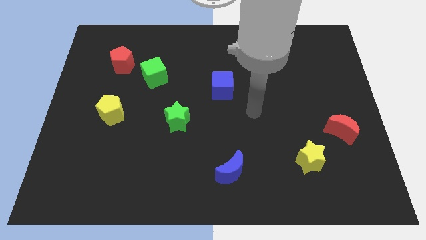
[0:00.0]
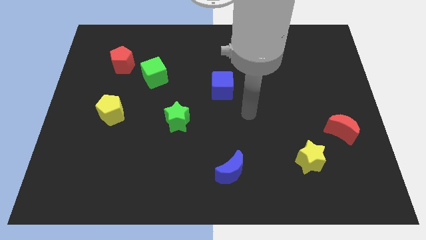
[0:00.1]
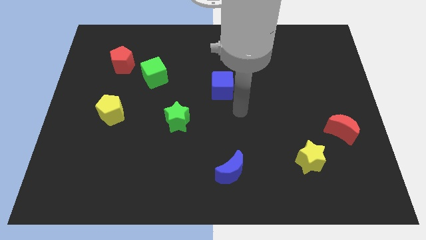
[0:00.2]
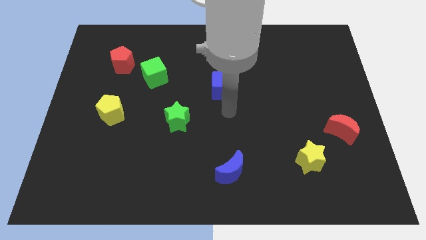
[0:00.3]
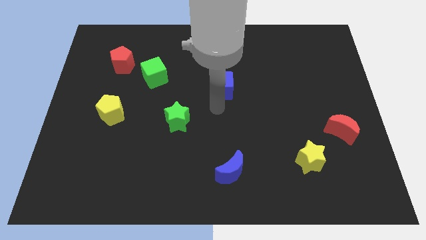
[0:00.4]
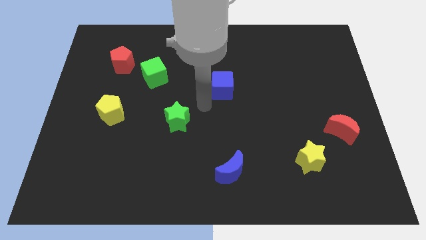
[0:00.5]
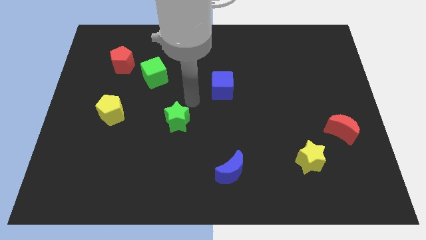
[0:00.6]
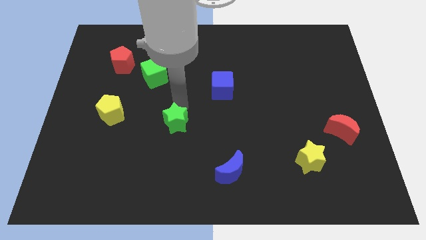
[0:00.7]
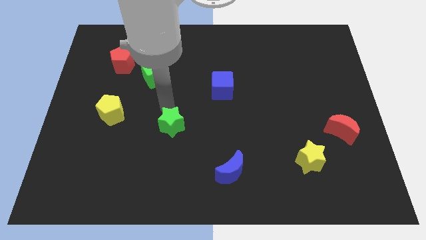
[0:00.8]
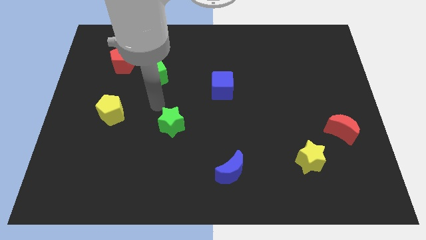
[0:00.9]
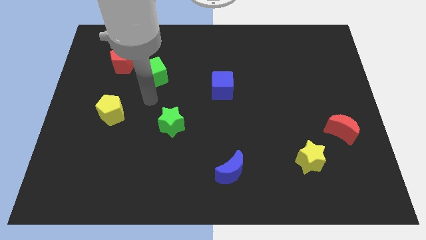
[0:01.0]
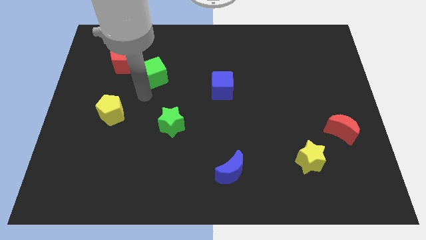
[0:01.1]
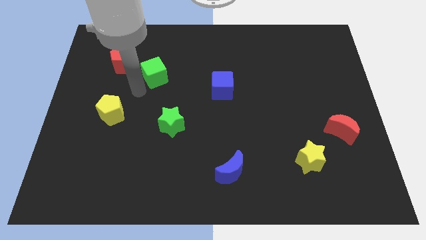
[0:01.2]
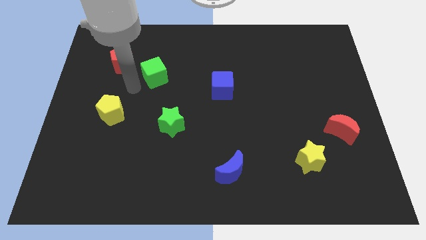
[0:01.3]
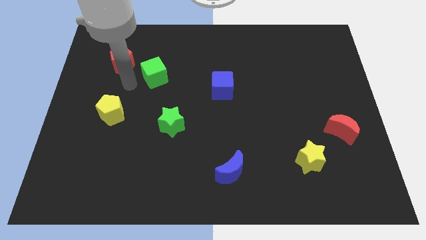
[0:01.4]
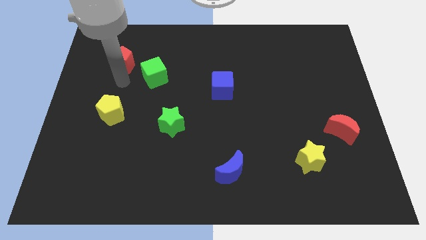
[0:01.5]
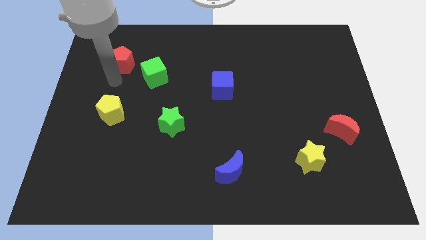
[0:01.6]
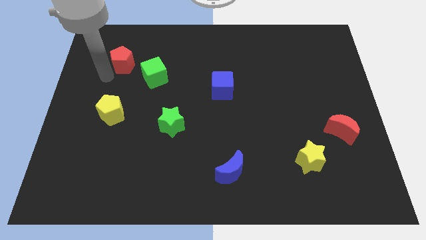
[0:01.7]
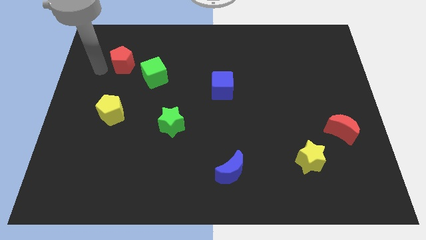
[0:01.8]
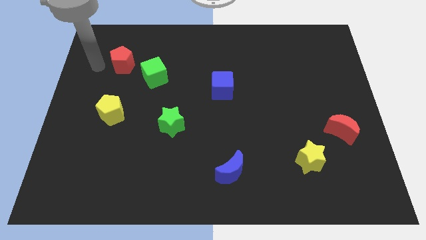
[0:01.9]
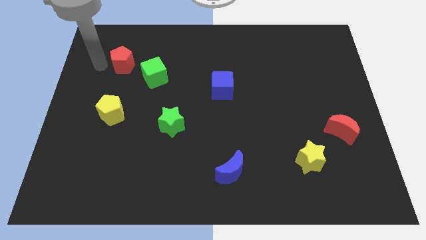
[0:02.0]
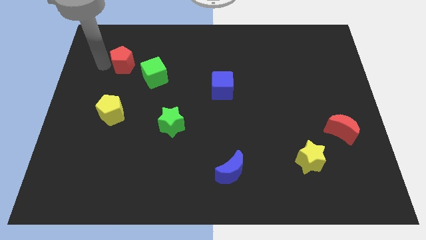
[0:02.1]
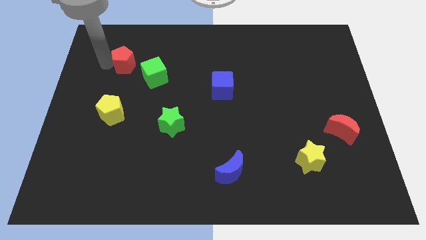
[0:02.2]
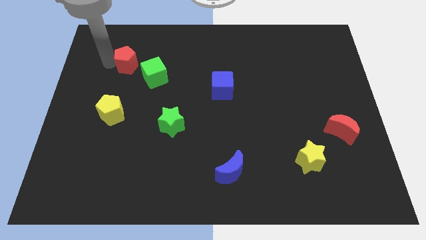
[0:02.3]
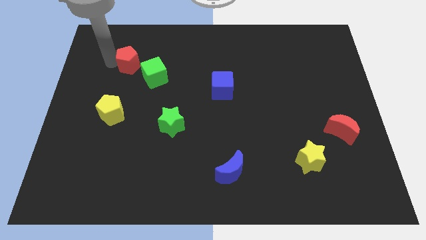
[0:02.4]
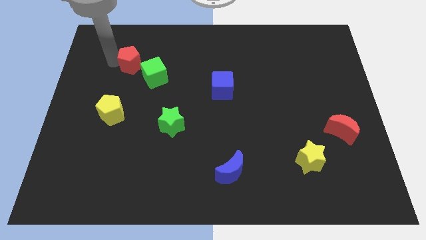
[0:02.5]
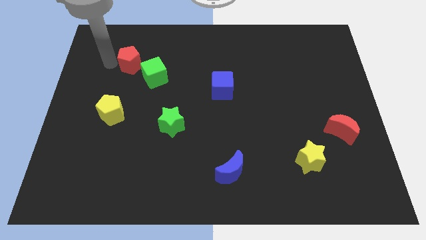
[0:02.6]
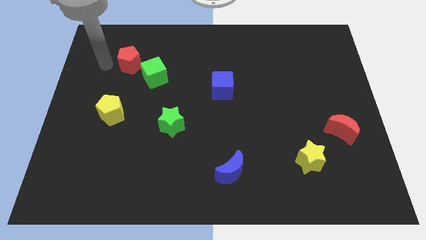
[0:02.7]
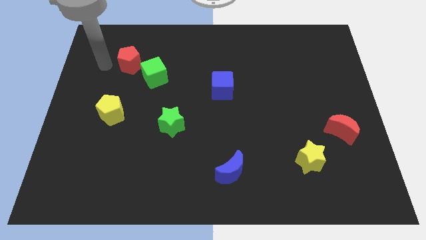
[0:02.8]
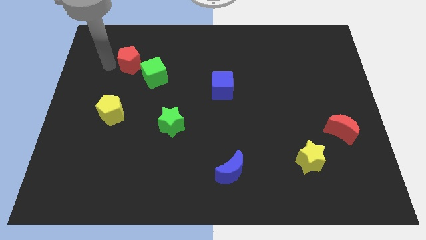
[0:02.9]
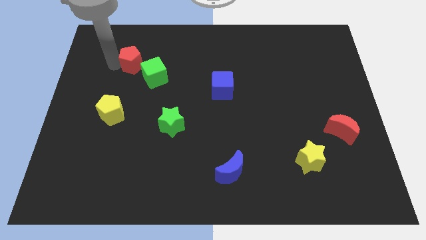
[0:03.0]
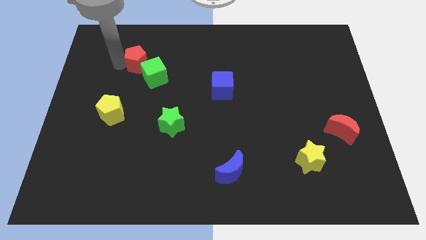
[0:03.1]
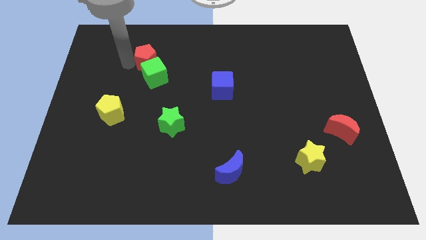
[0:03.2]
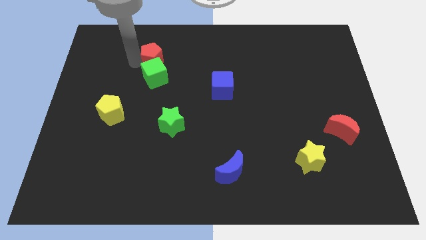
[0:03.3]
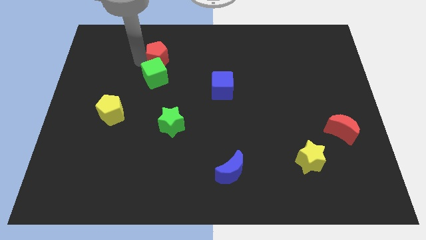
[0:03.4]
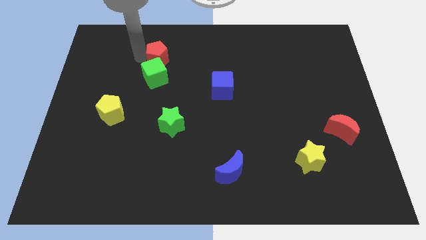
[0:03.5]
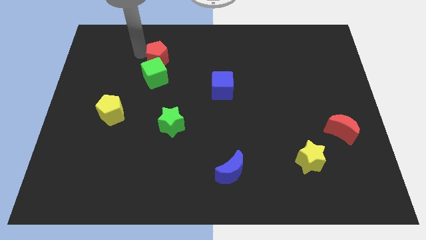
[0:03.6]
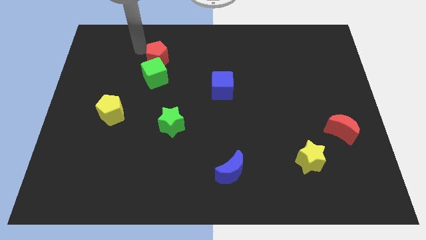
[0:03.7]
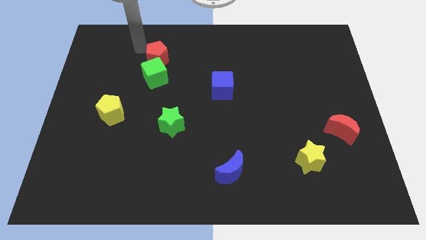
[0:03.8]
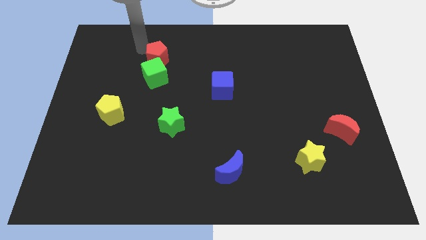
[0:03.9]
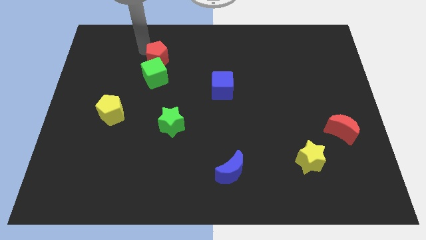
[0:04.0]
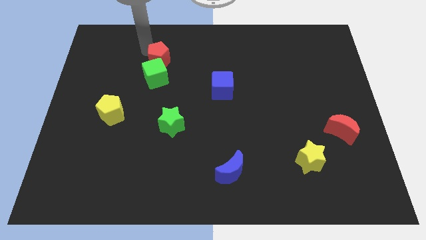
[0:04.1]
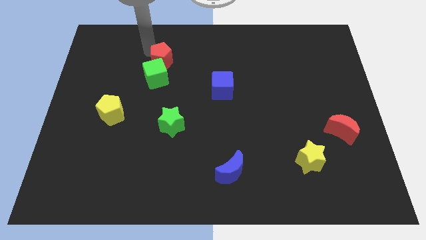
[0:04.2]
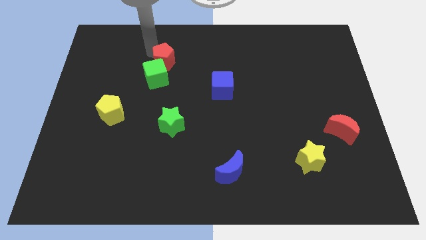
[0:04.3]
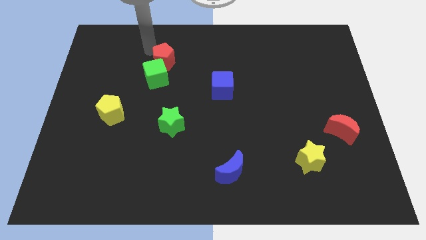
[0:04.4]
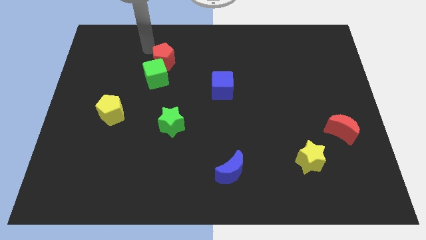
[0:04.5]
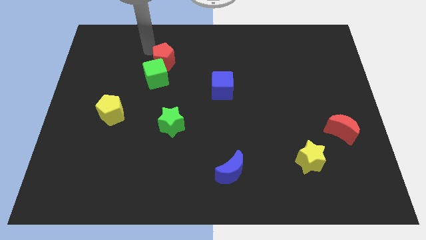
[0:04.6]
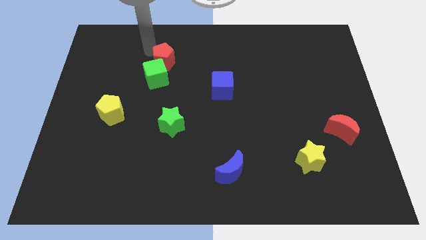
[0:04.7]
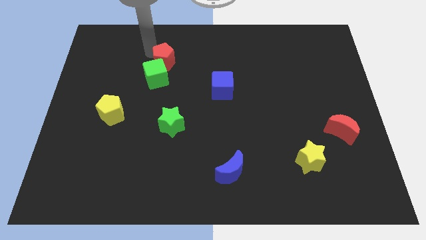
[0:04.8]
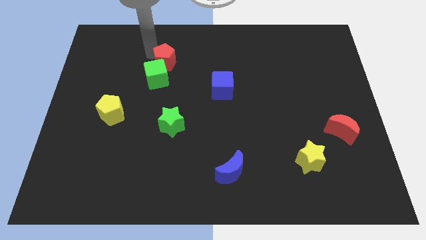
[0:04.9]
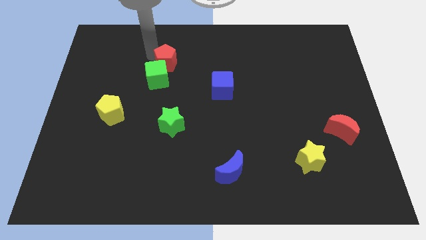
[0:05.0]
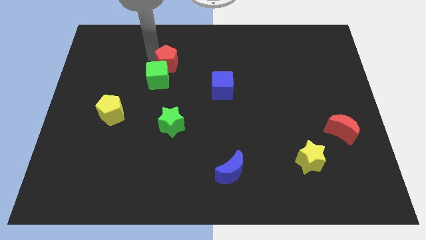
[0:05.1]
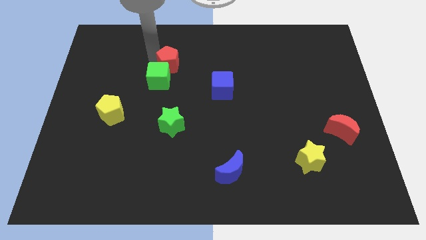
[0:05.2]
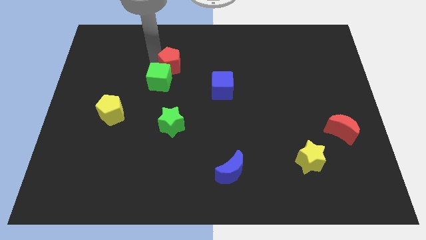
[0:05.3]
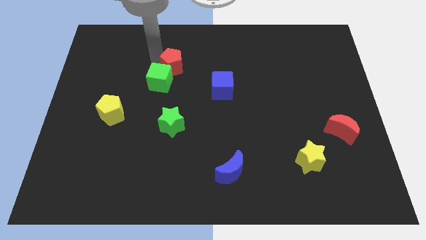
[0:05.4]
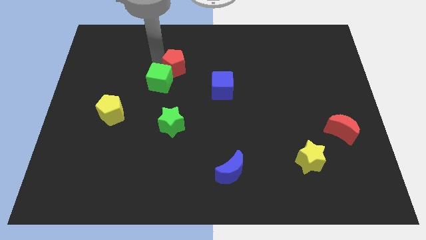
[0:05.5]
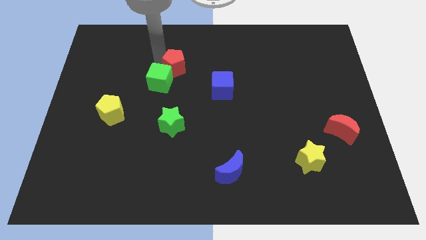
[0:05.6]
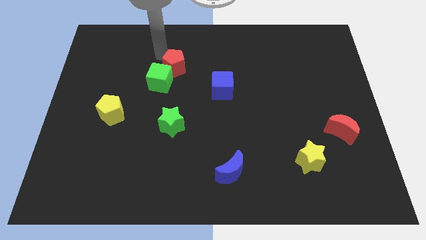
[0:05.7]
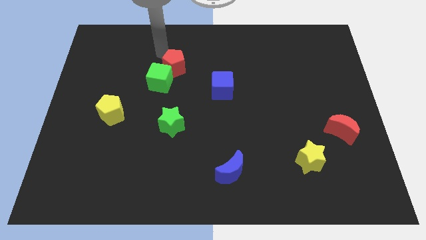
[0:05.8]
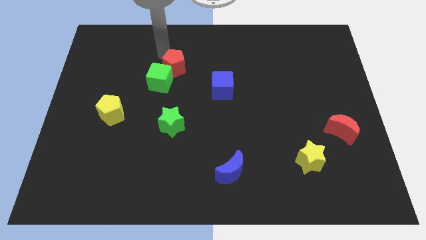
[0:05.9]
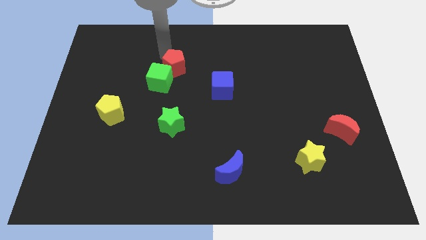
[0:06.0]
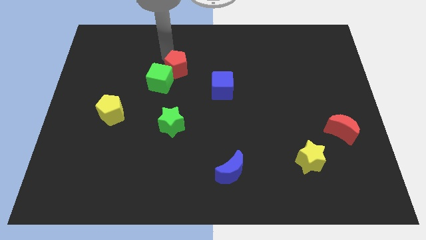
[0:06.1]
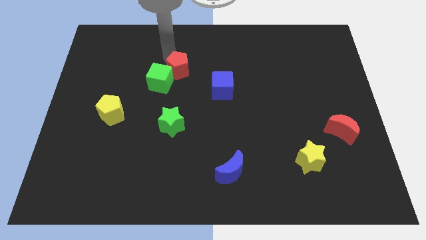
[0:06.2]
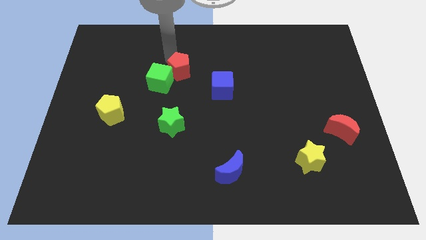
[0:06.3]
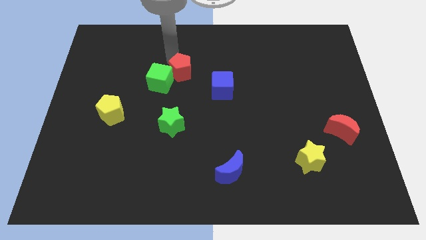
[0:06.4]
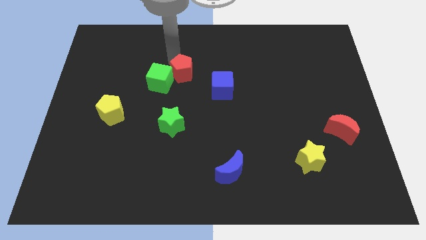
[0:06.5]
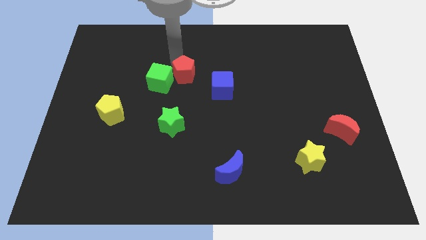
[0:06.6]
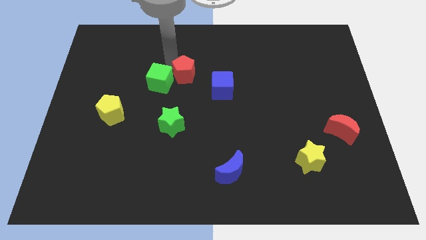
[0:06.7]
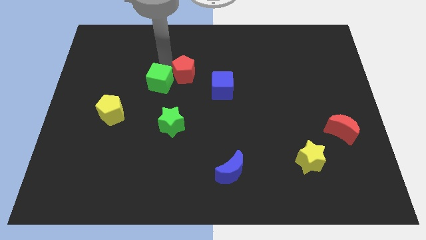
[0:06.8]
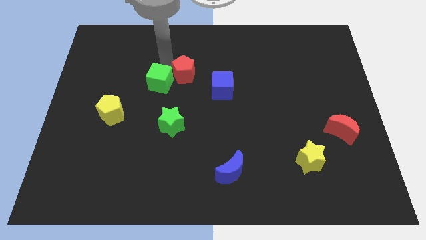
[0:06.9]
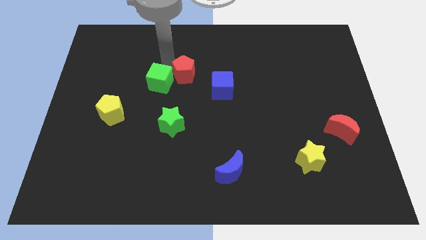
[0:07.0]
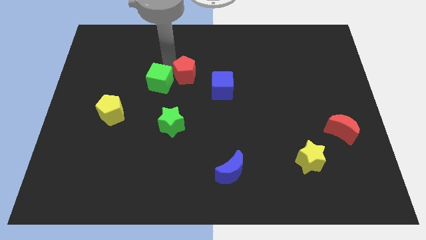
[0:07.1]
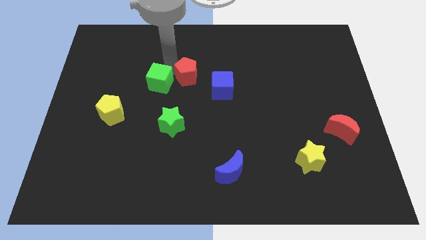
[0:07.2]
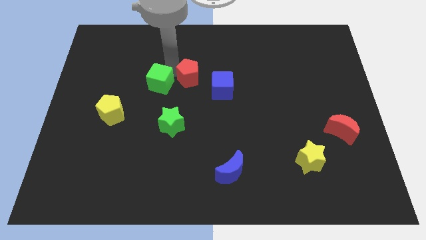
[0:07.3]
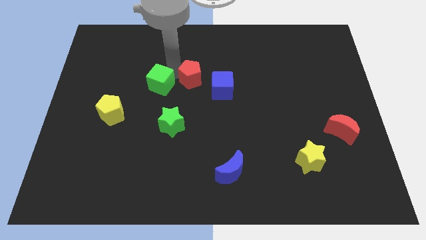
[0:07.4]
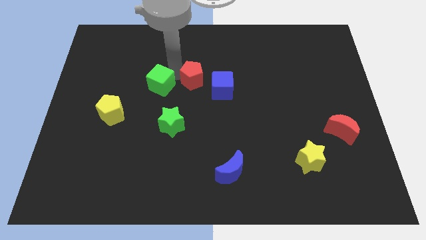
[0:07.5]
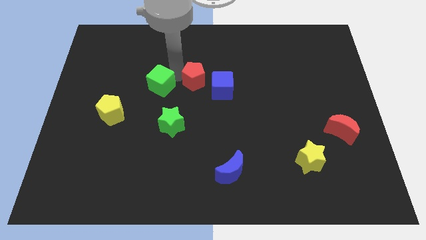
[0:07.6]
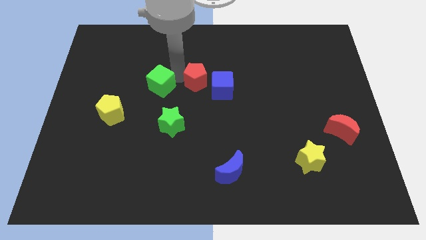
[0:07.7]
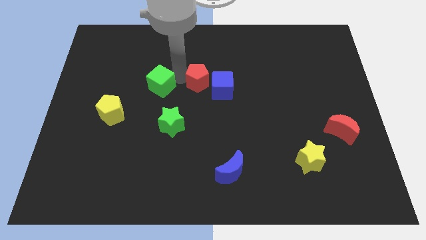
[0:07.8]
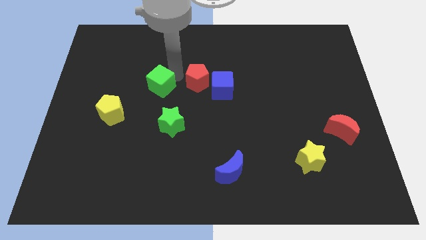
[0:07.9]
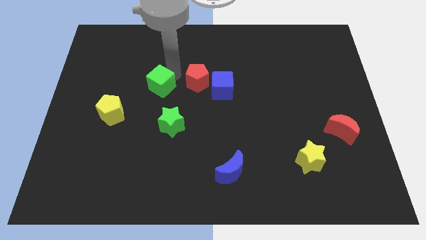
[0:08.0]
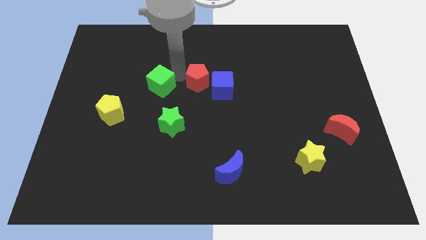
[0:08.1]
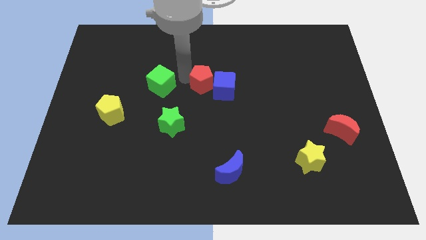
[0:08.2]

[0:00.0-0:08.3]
push the red pentagon next to the blue cube
